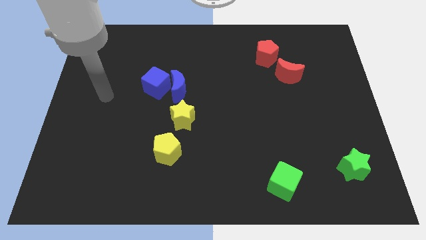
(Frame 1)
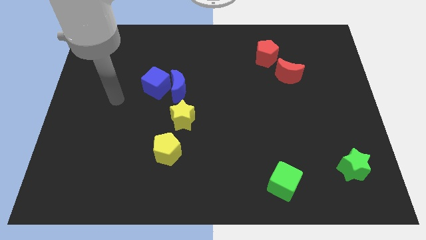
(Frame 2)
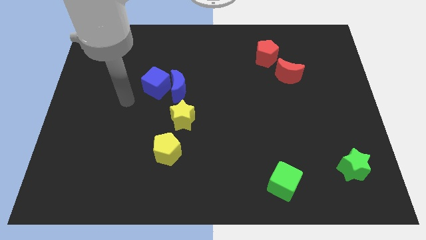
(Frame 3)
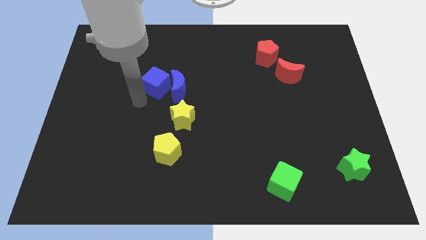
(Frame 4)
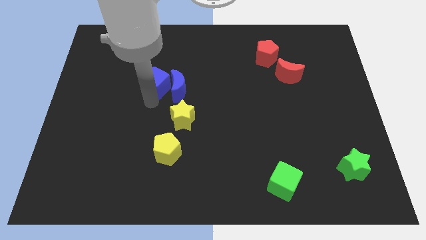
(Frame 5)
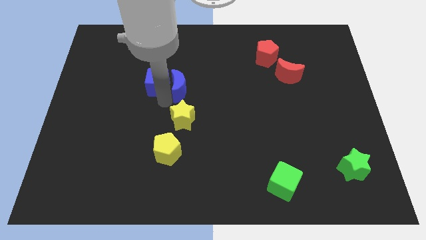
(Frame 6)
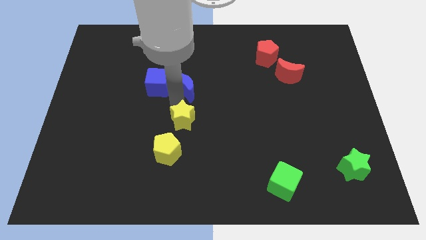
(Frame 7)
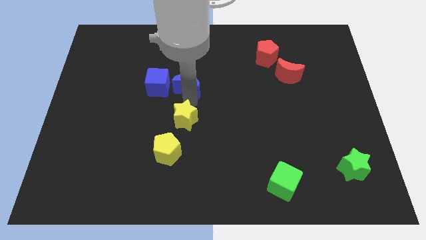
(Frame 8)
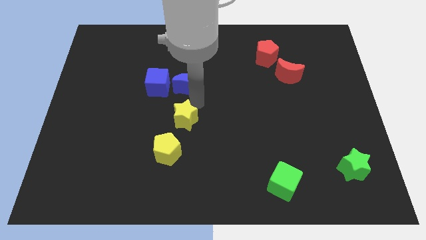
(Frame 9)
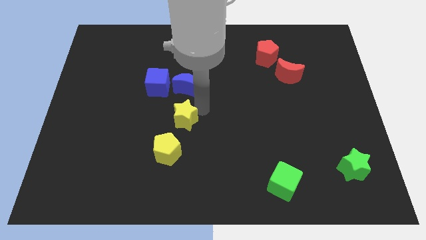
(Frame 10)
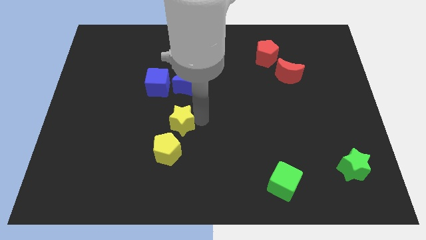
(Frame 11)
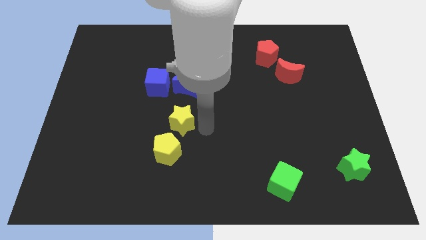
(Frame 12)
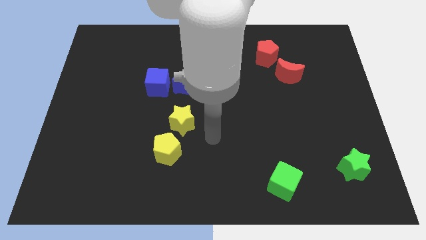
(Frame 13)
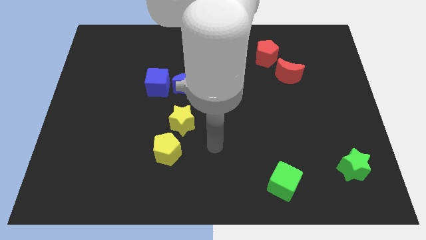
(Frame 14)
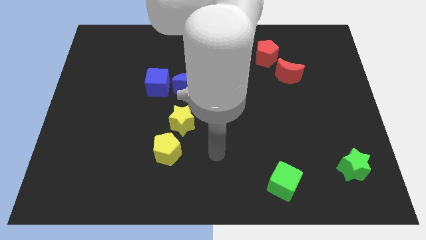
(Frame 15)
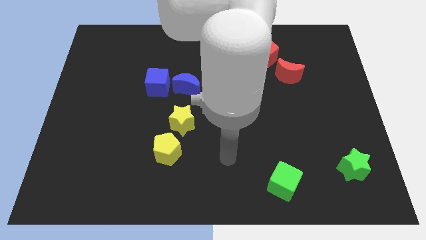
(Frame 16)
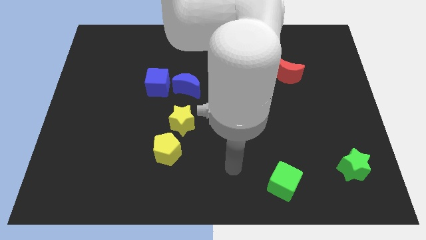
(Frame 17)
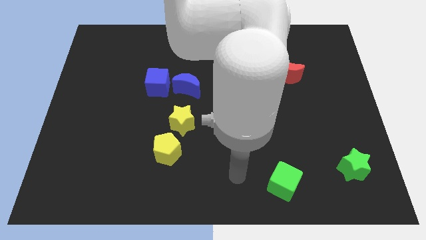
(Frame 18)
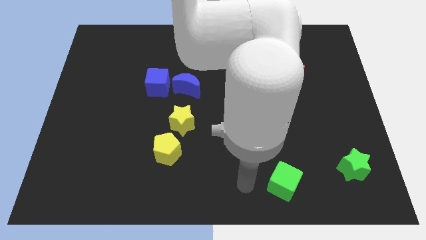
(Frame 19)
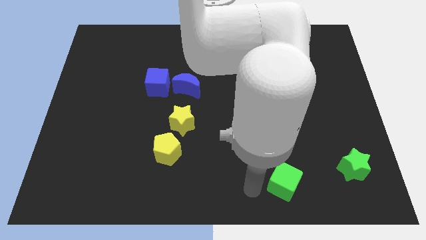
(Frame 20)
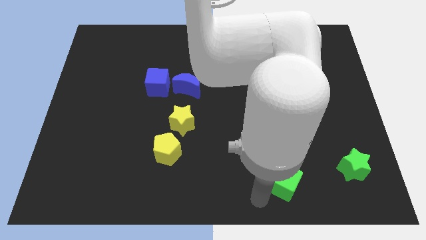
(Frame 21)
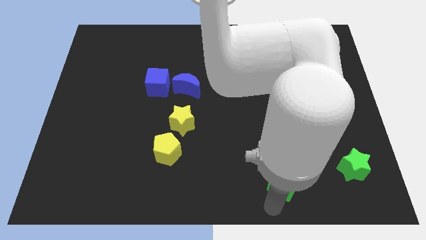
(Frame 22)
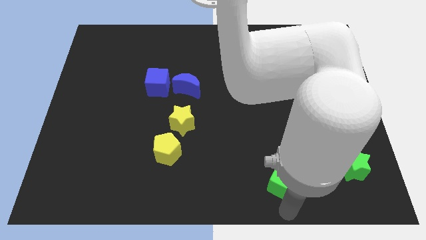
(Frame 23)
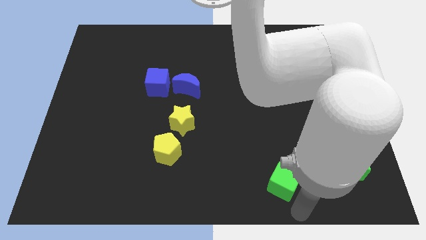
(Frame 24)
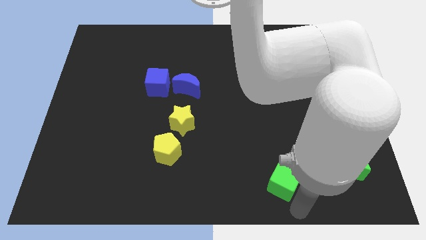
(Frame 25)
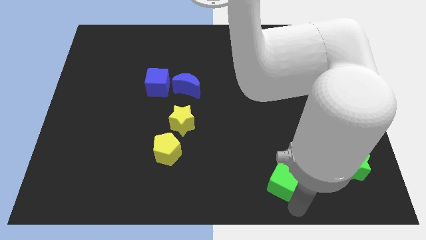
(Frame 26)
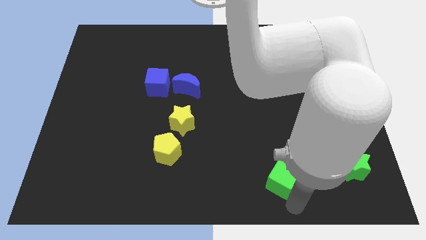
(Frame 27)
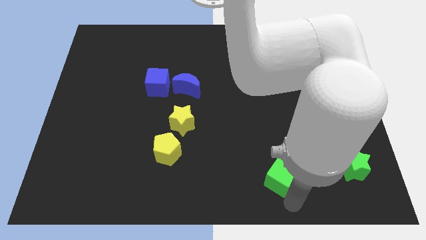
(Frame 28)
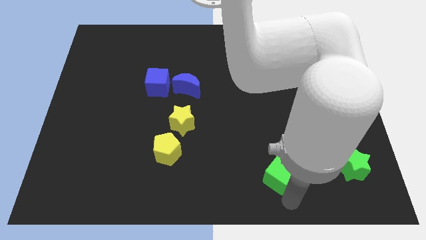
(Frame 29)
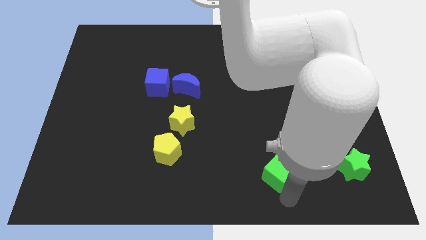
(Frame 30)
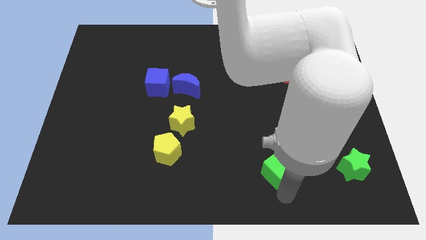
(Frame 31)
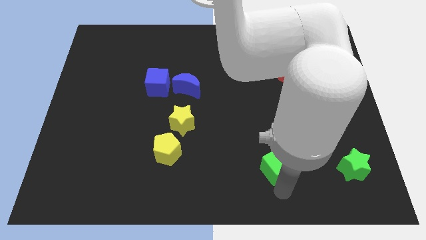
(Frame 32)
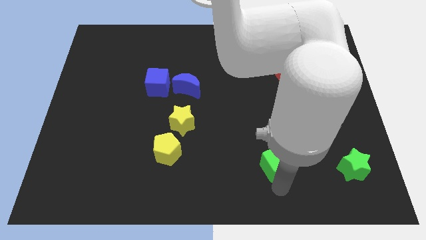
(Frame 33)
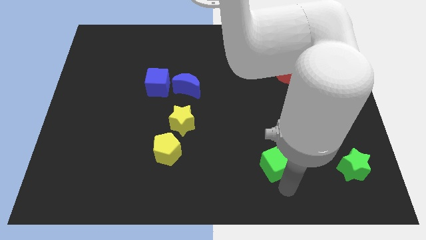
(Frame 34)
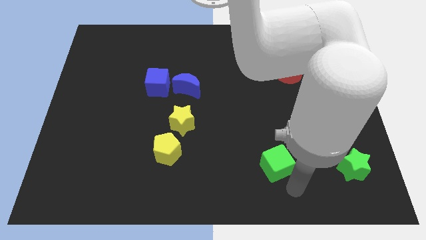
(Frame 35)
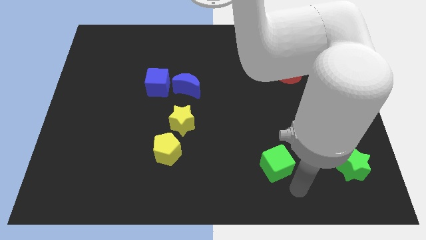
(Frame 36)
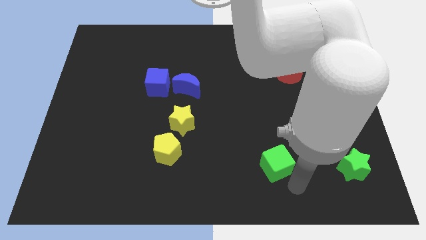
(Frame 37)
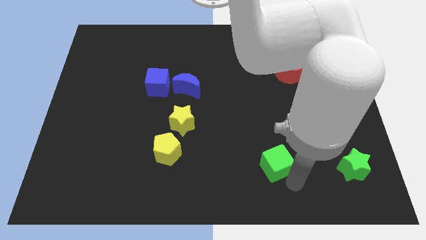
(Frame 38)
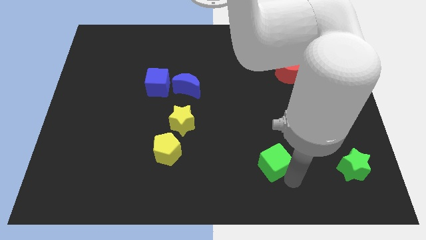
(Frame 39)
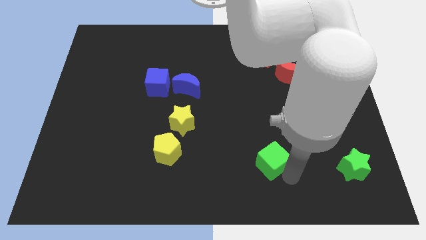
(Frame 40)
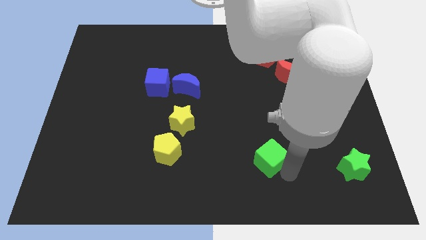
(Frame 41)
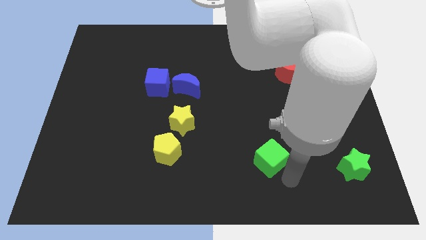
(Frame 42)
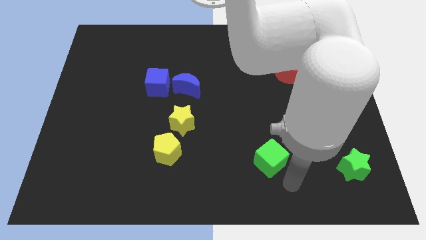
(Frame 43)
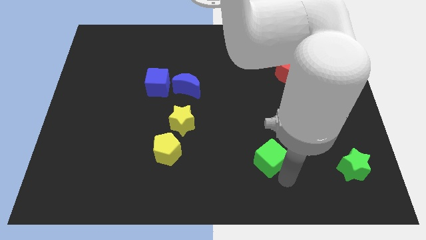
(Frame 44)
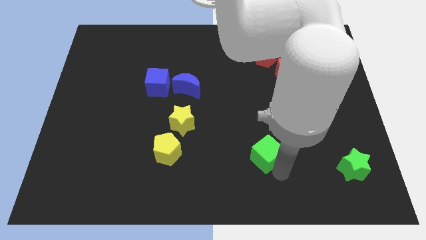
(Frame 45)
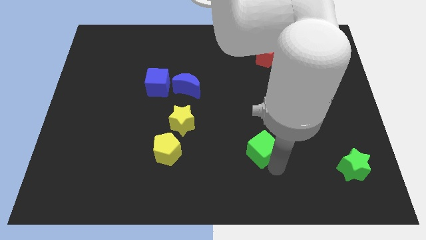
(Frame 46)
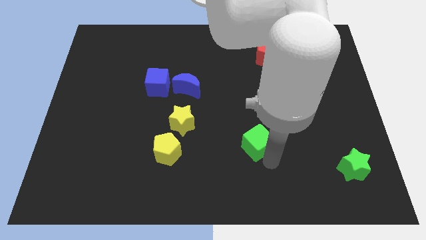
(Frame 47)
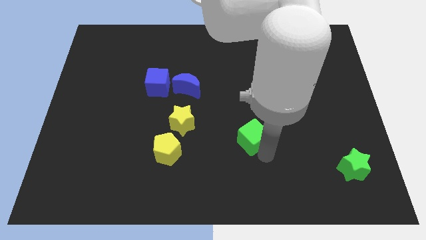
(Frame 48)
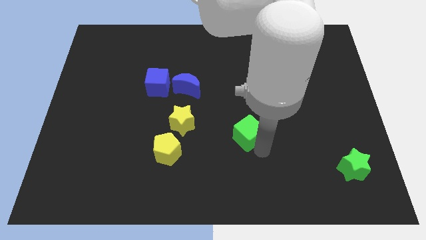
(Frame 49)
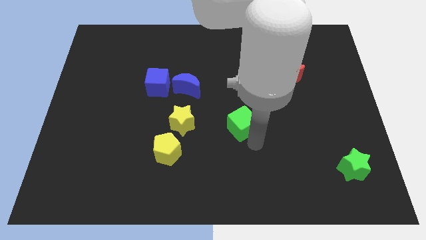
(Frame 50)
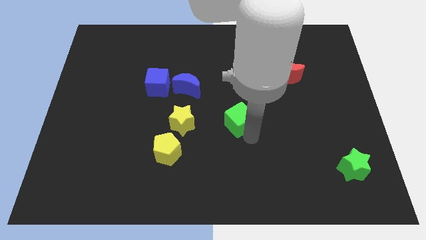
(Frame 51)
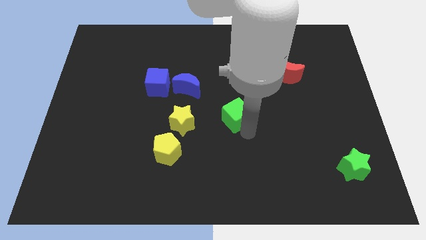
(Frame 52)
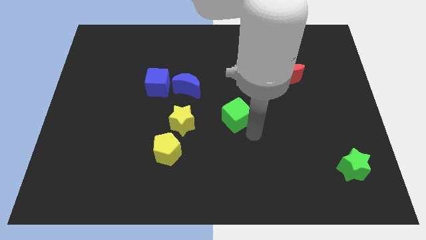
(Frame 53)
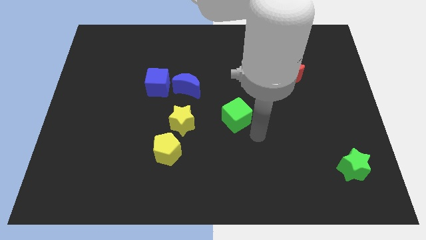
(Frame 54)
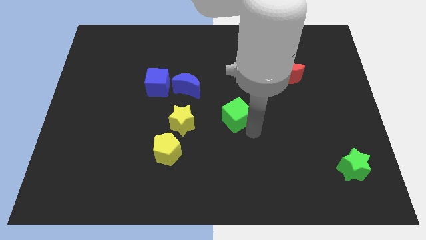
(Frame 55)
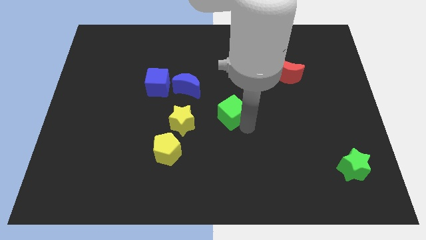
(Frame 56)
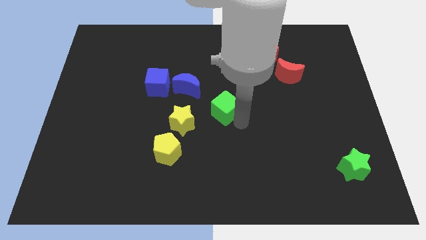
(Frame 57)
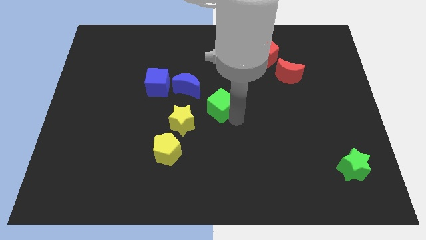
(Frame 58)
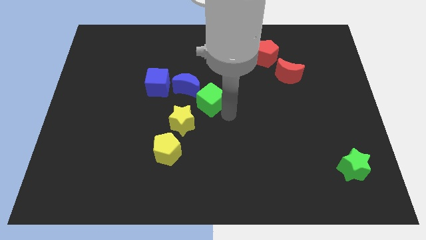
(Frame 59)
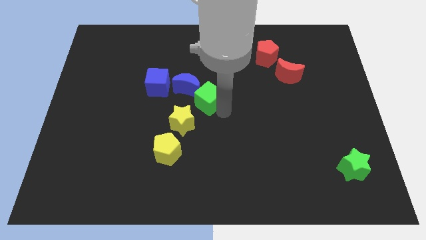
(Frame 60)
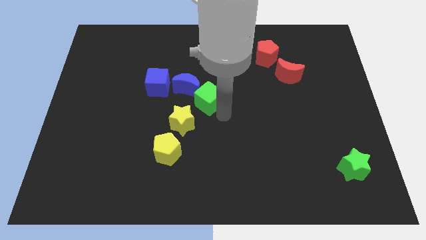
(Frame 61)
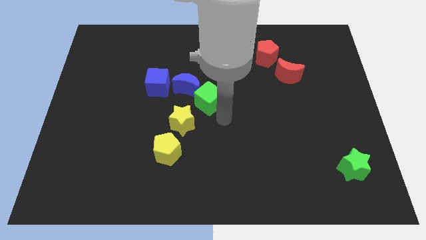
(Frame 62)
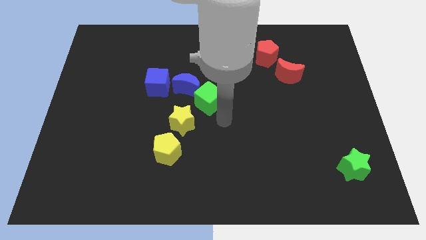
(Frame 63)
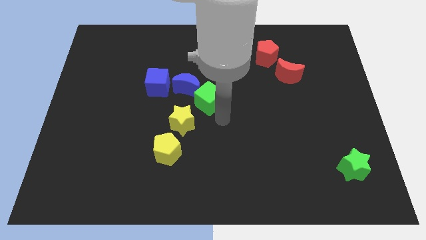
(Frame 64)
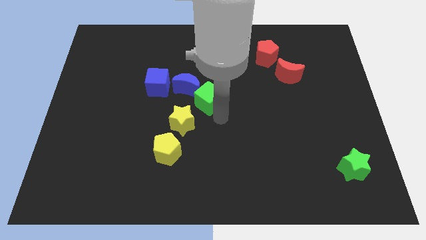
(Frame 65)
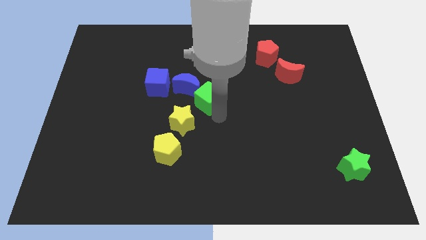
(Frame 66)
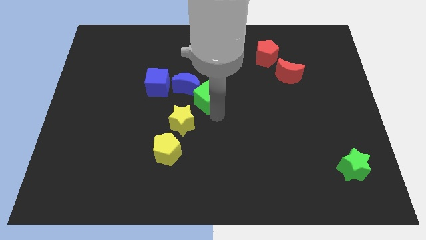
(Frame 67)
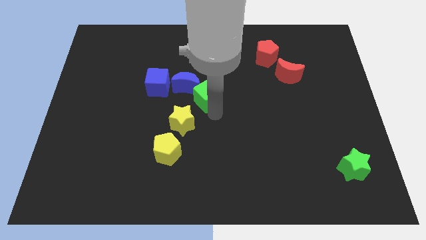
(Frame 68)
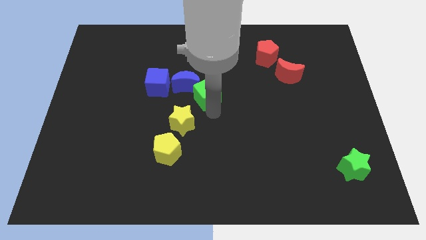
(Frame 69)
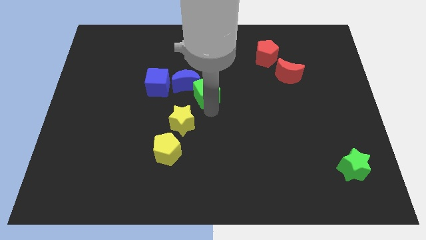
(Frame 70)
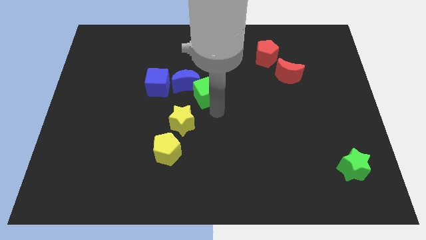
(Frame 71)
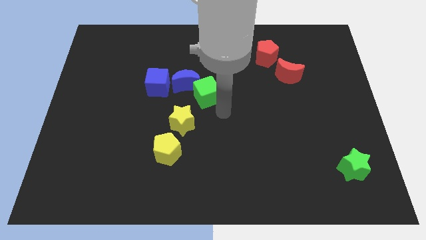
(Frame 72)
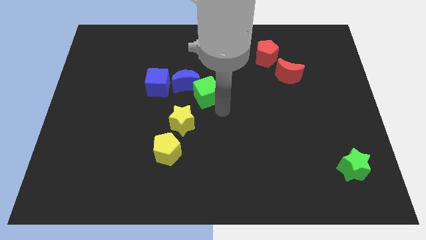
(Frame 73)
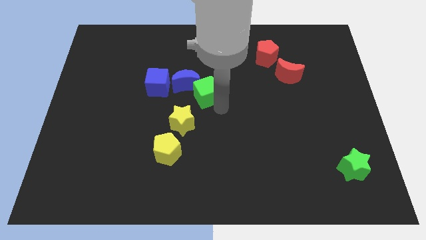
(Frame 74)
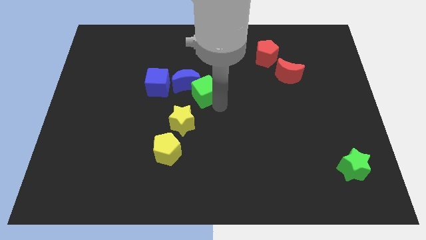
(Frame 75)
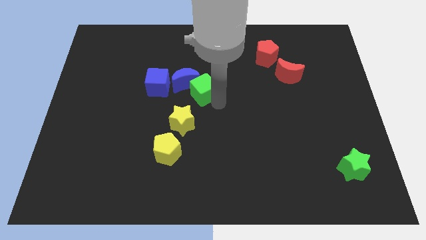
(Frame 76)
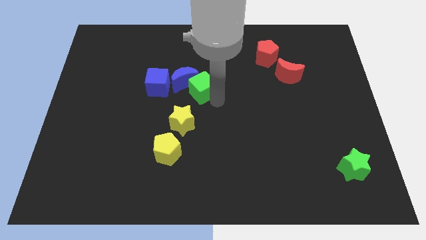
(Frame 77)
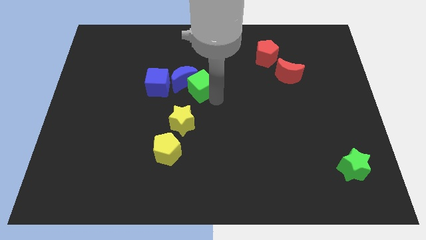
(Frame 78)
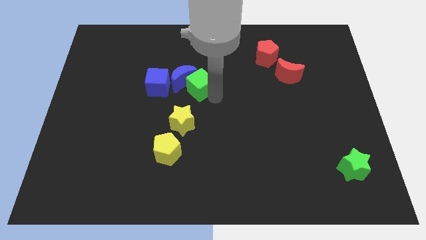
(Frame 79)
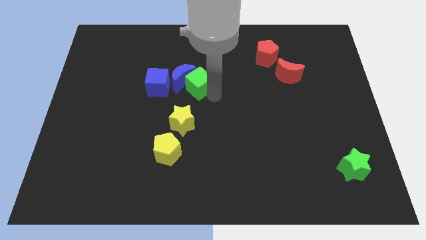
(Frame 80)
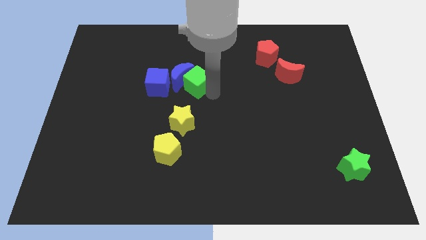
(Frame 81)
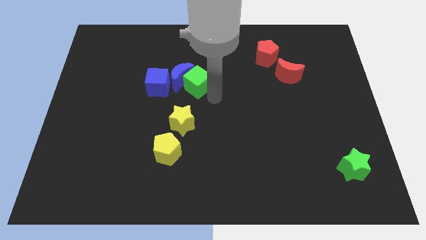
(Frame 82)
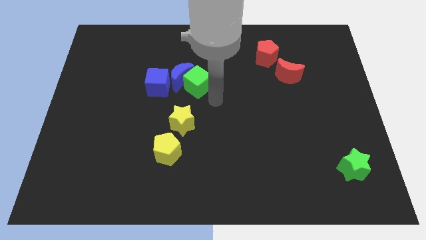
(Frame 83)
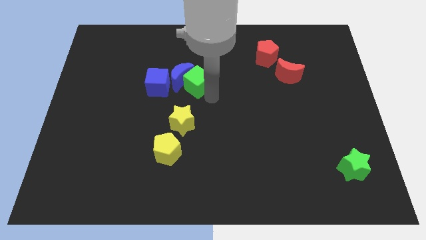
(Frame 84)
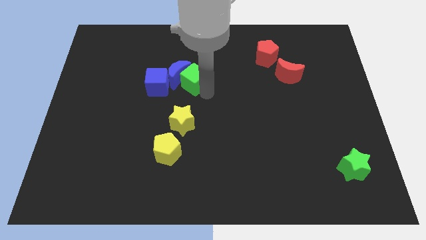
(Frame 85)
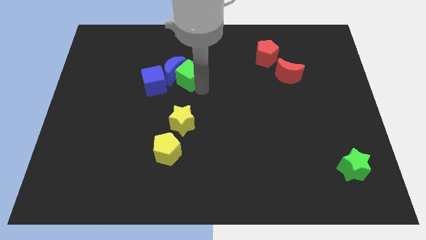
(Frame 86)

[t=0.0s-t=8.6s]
move the green cube to the top right of the blue cube
